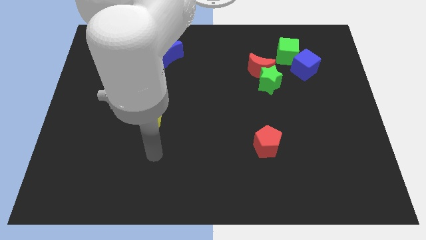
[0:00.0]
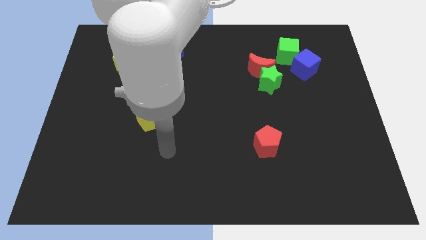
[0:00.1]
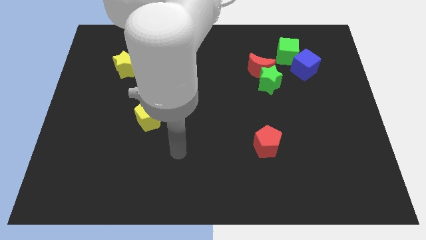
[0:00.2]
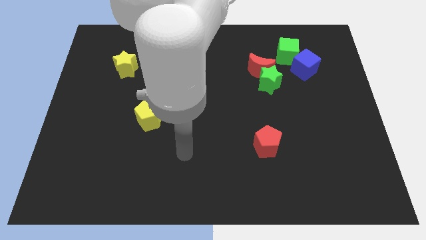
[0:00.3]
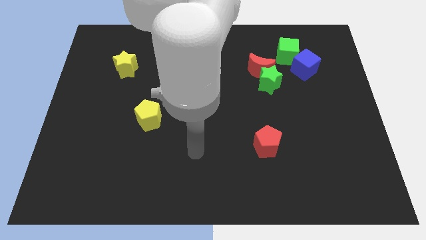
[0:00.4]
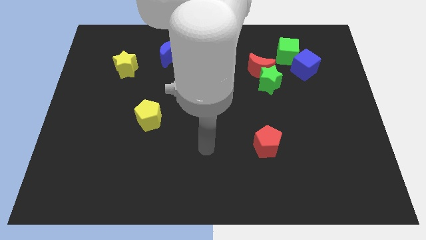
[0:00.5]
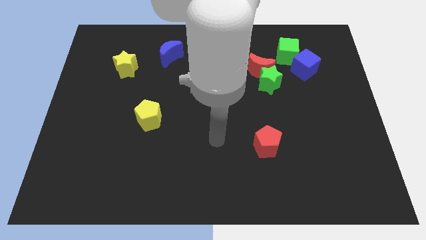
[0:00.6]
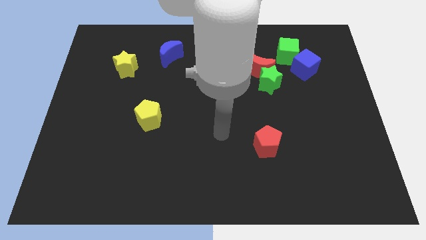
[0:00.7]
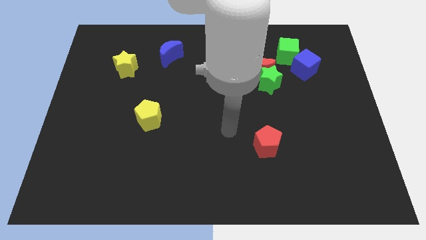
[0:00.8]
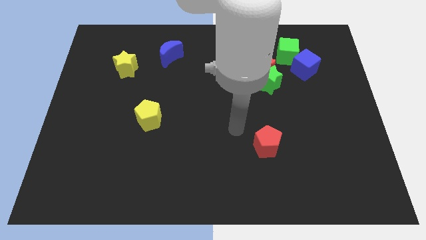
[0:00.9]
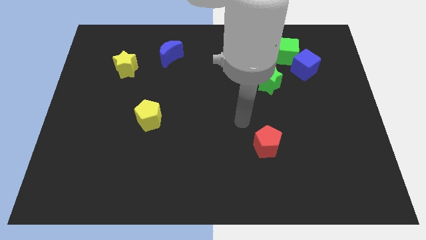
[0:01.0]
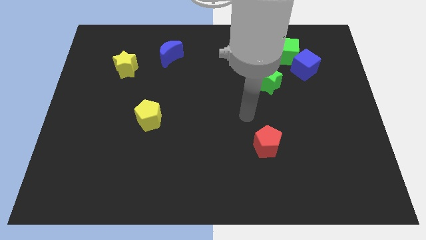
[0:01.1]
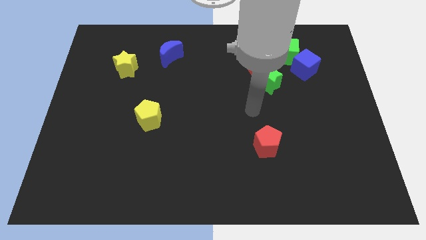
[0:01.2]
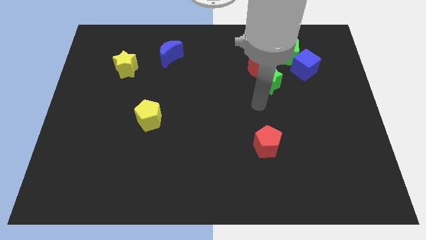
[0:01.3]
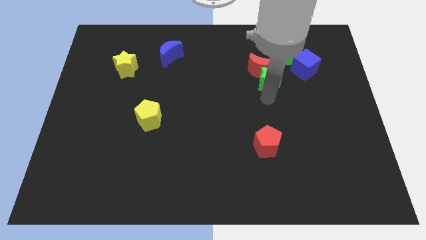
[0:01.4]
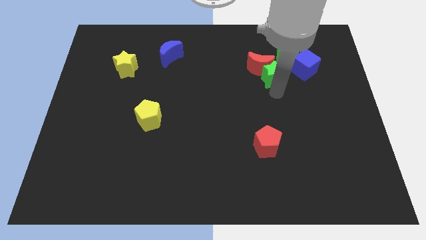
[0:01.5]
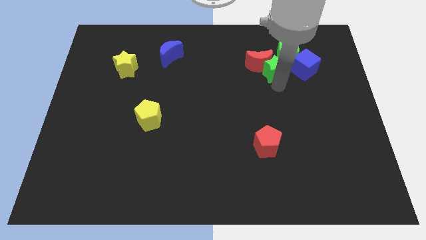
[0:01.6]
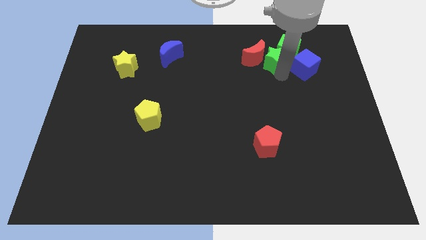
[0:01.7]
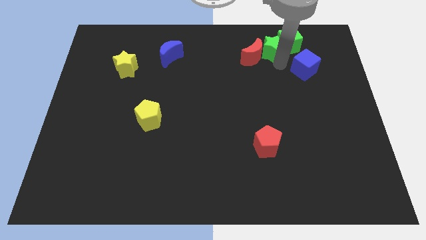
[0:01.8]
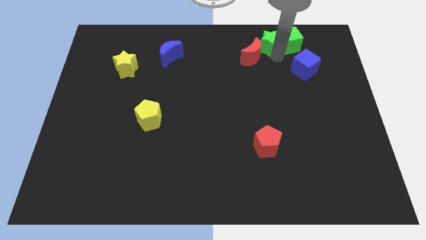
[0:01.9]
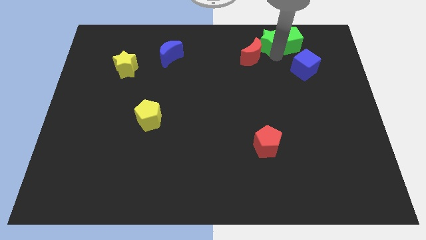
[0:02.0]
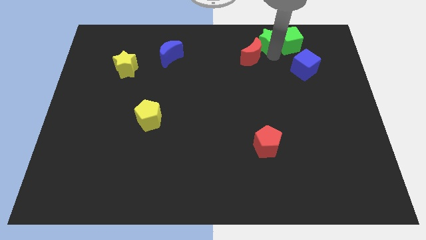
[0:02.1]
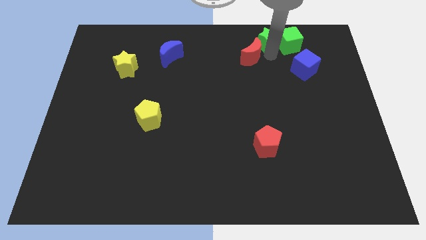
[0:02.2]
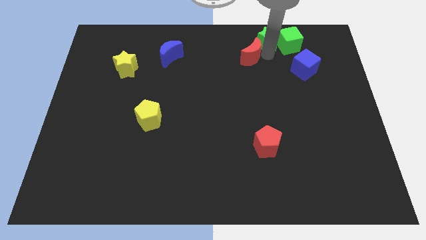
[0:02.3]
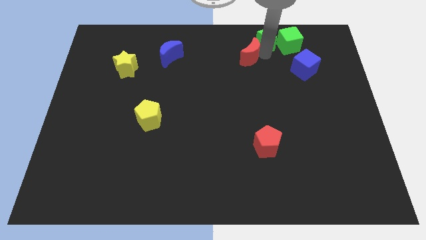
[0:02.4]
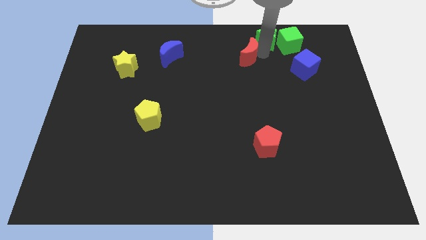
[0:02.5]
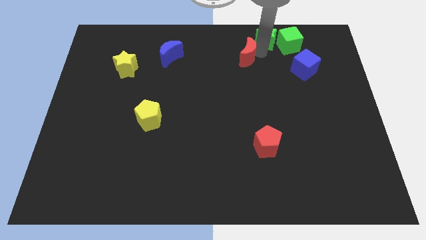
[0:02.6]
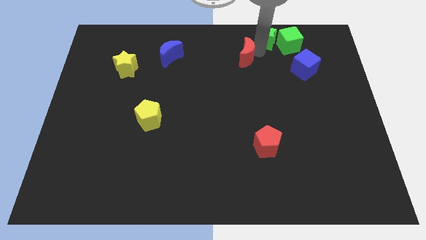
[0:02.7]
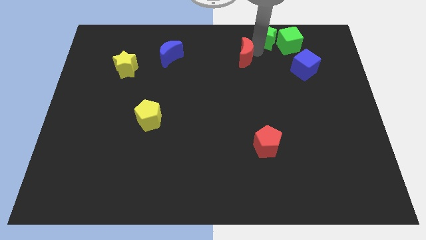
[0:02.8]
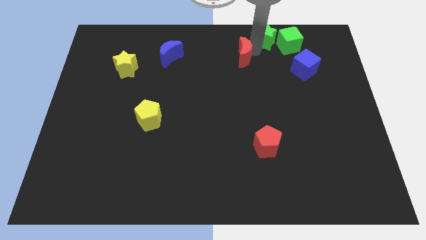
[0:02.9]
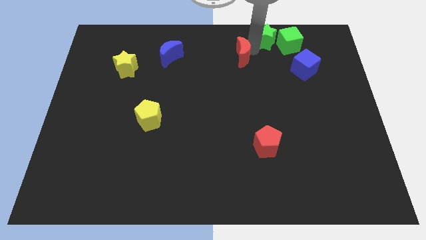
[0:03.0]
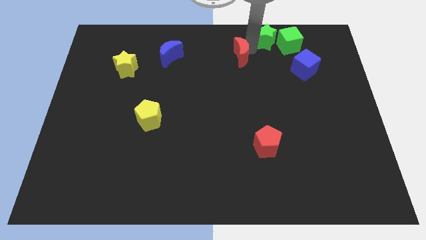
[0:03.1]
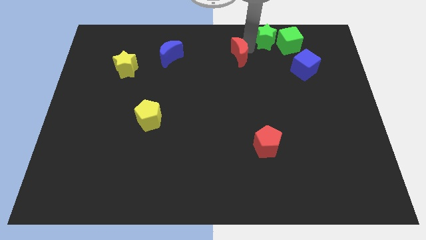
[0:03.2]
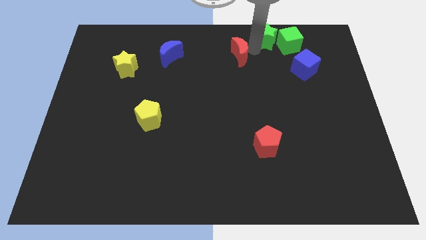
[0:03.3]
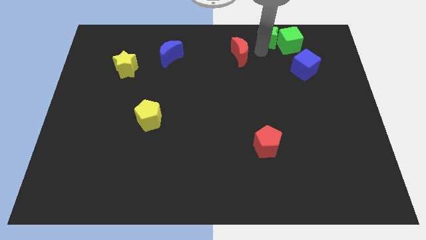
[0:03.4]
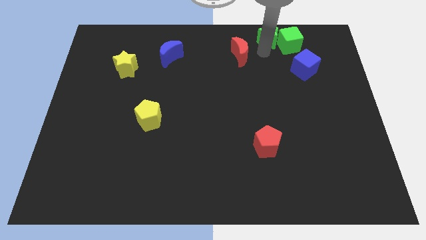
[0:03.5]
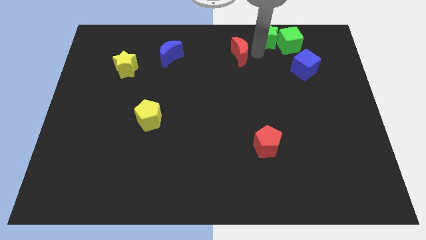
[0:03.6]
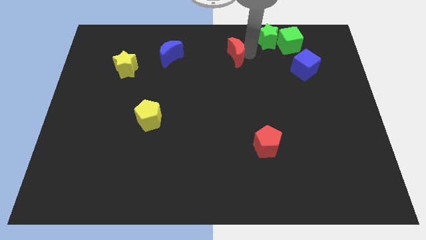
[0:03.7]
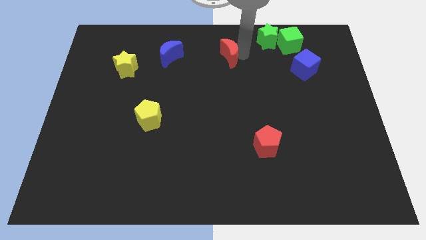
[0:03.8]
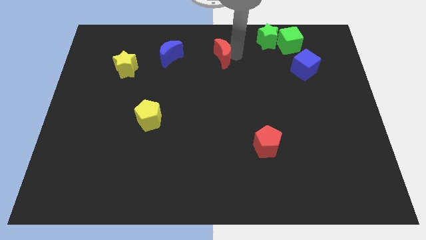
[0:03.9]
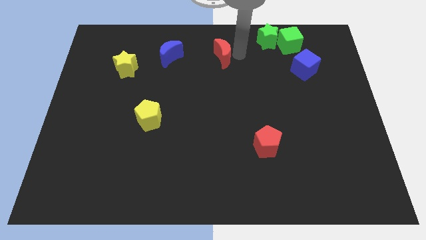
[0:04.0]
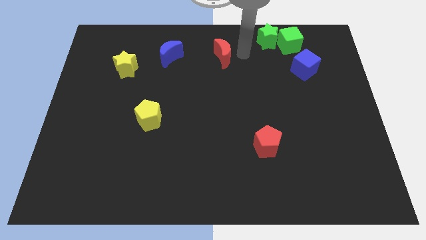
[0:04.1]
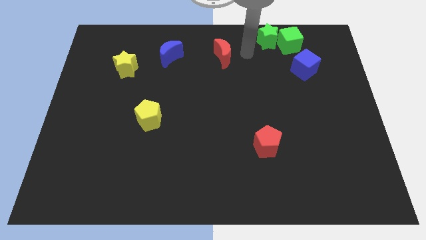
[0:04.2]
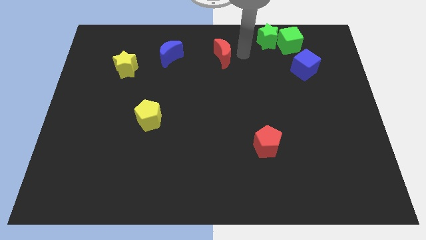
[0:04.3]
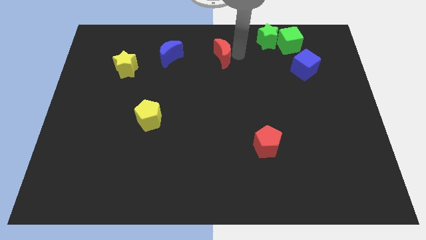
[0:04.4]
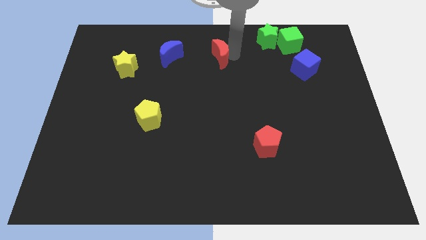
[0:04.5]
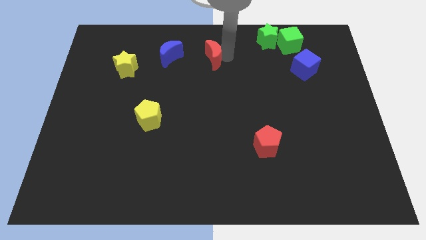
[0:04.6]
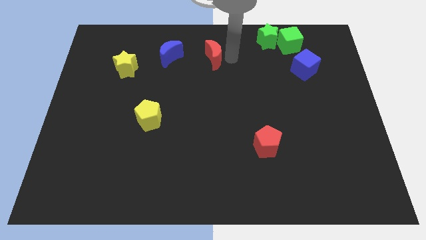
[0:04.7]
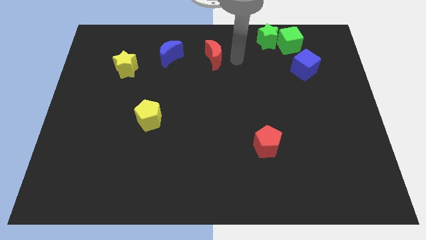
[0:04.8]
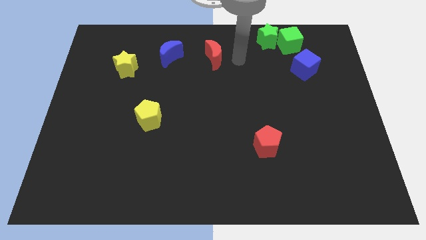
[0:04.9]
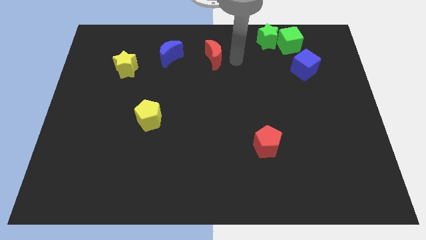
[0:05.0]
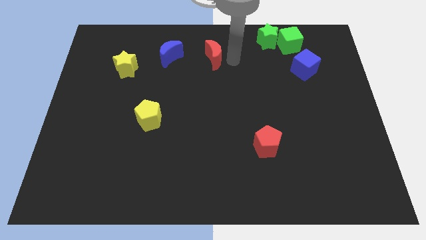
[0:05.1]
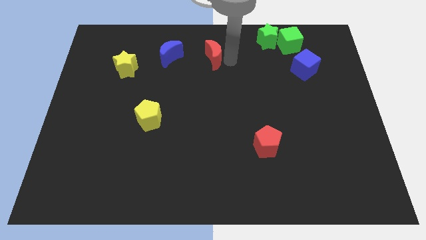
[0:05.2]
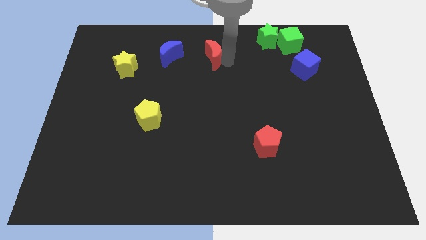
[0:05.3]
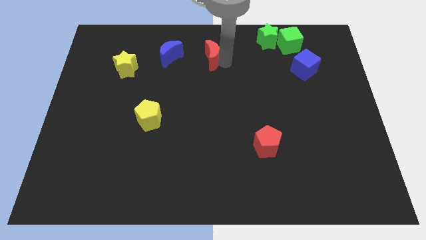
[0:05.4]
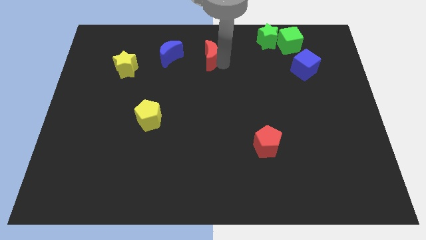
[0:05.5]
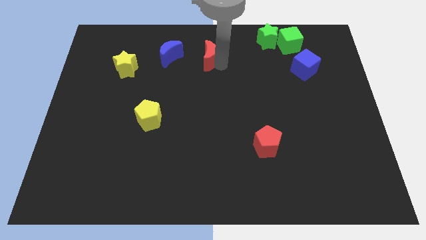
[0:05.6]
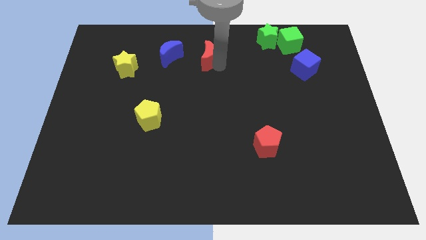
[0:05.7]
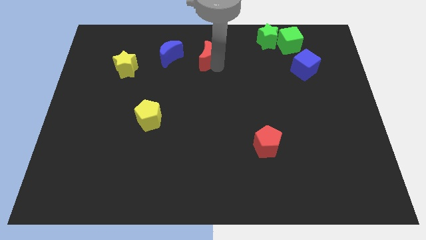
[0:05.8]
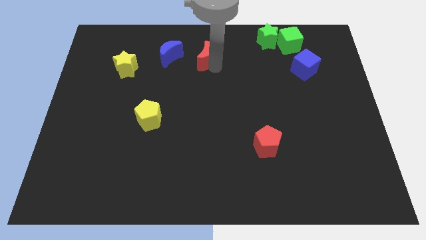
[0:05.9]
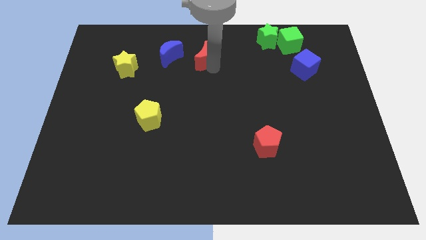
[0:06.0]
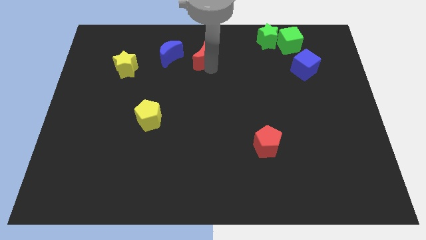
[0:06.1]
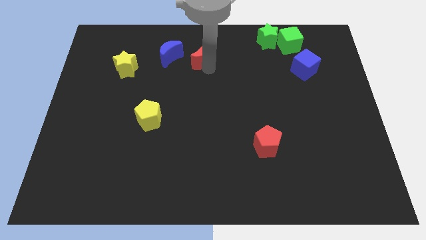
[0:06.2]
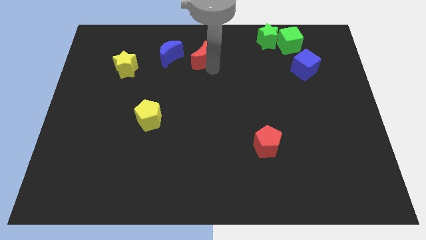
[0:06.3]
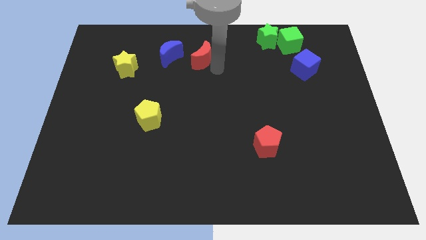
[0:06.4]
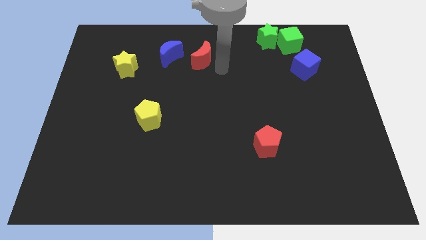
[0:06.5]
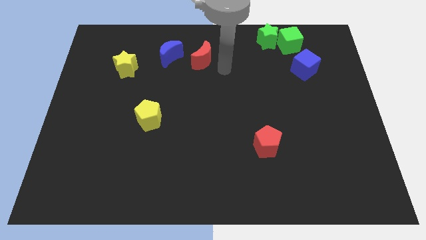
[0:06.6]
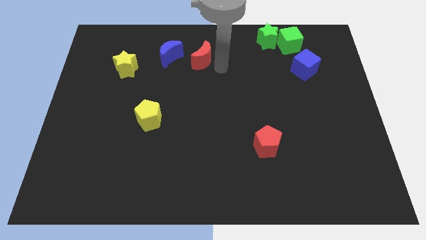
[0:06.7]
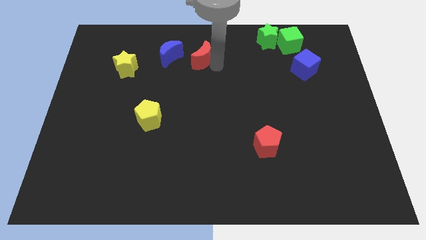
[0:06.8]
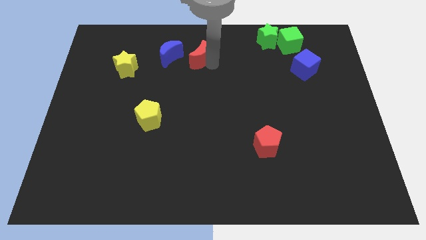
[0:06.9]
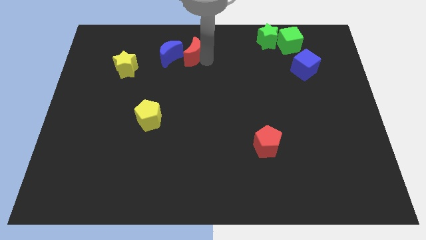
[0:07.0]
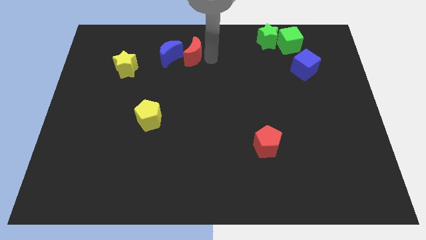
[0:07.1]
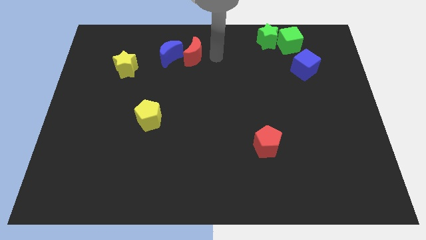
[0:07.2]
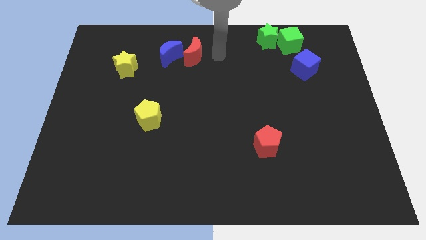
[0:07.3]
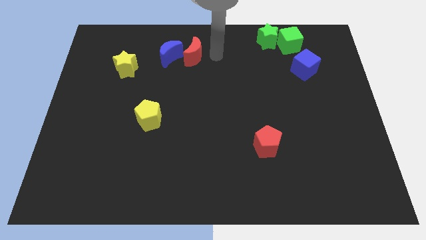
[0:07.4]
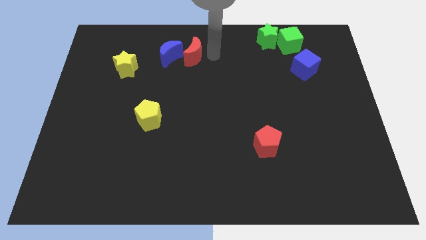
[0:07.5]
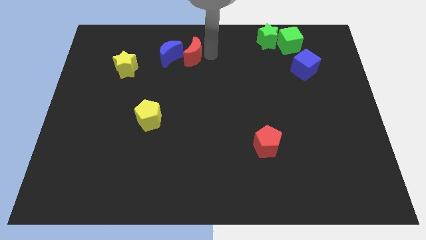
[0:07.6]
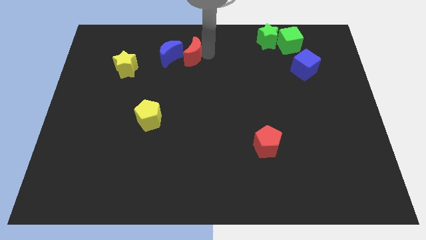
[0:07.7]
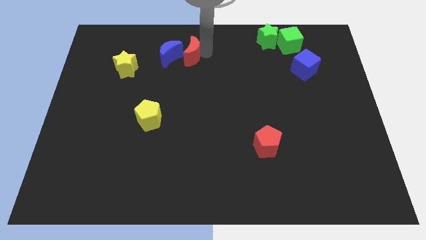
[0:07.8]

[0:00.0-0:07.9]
push the red moon close to the blue moon
